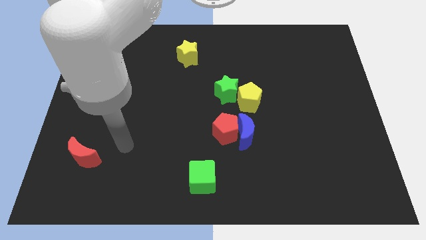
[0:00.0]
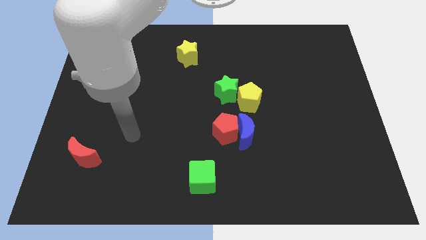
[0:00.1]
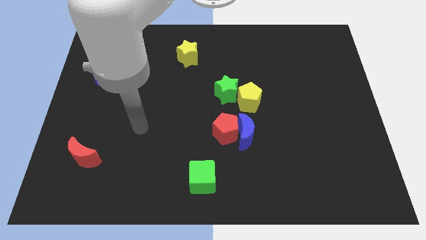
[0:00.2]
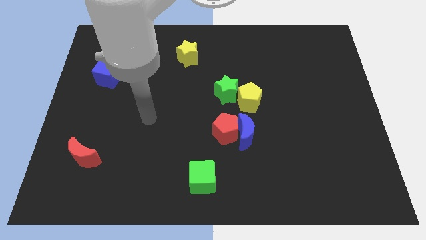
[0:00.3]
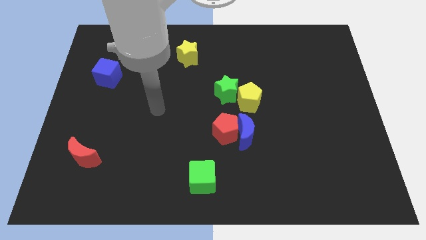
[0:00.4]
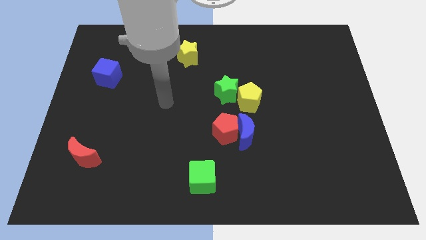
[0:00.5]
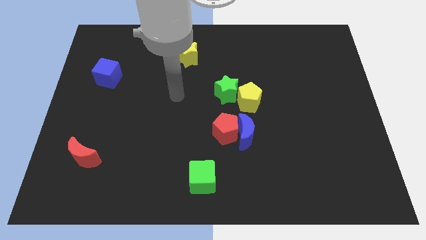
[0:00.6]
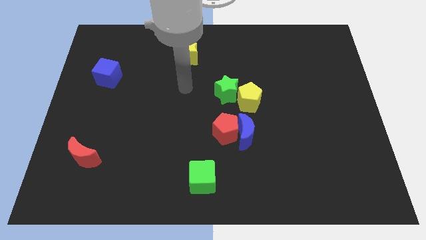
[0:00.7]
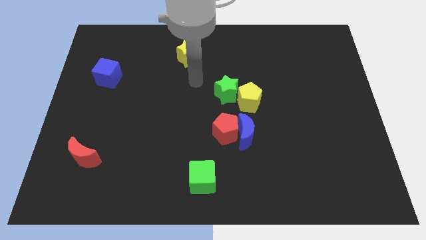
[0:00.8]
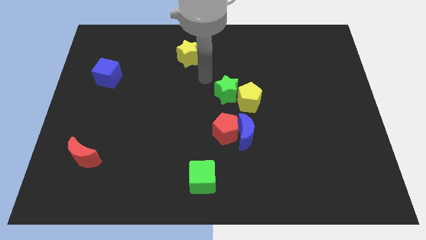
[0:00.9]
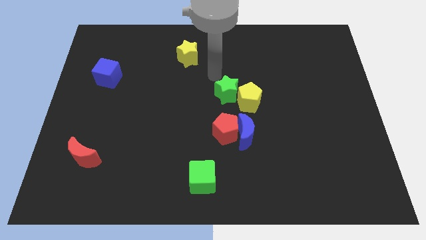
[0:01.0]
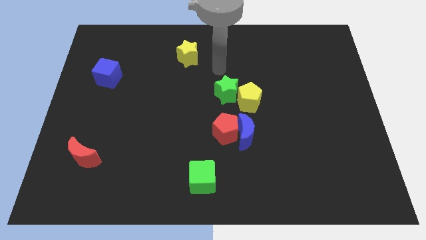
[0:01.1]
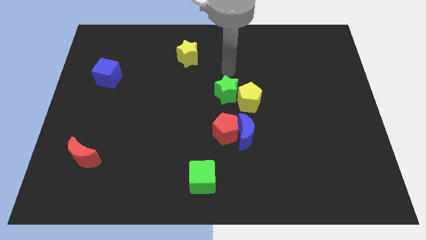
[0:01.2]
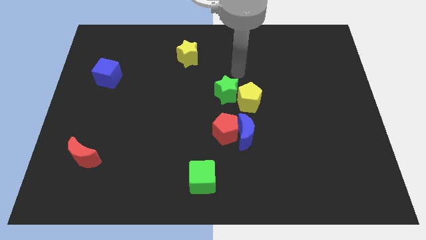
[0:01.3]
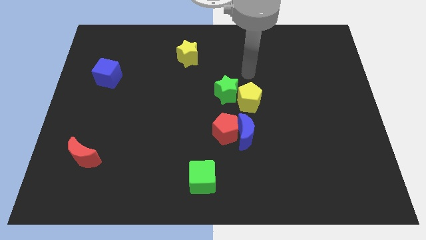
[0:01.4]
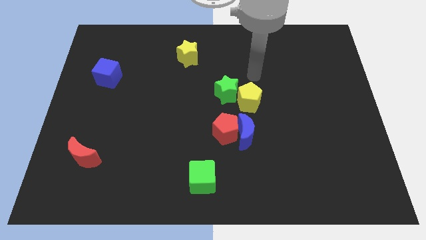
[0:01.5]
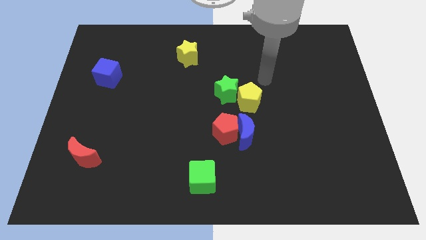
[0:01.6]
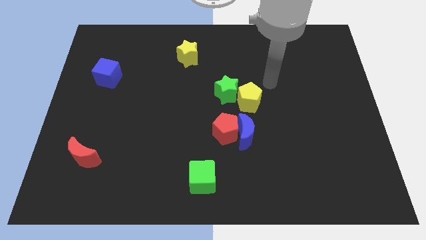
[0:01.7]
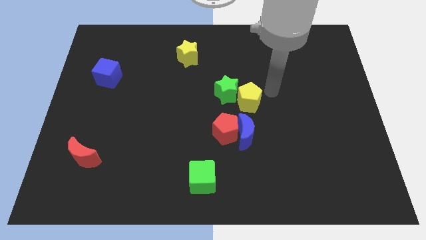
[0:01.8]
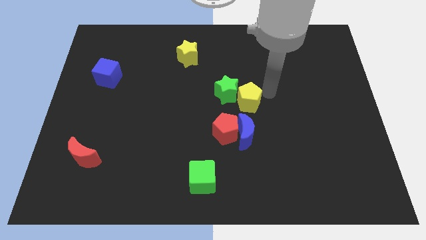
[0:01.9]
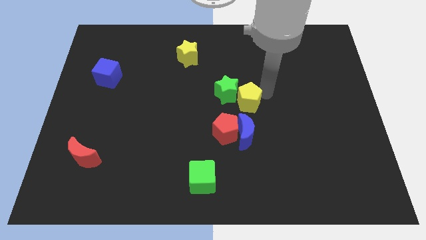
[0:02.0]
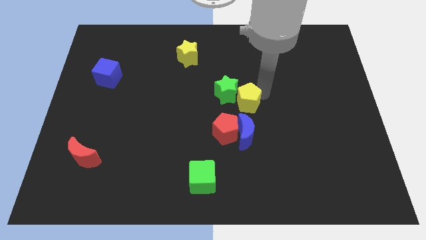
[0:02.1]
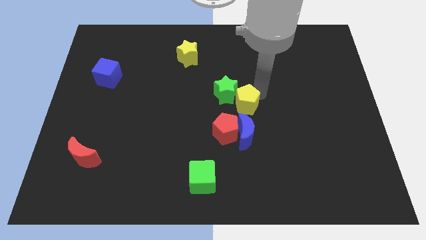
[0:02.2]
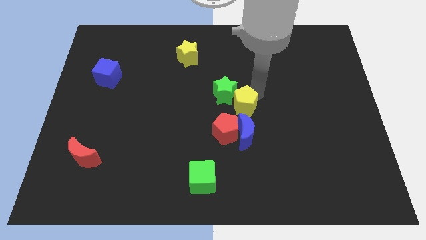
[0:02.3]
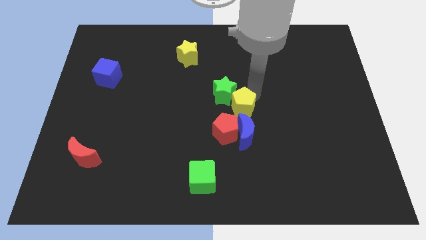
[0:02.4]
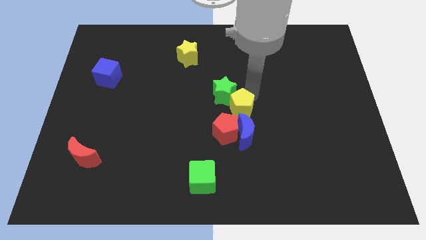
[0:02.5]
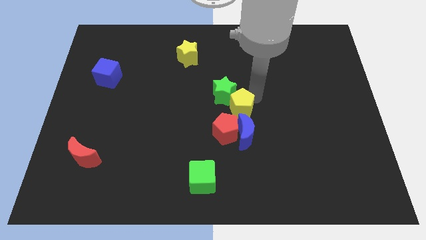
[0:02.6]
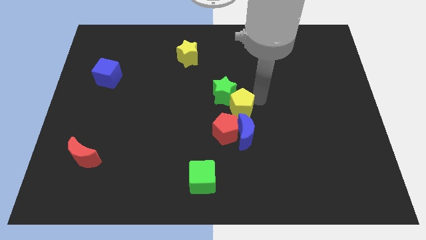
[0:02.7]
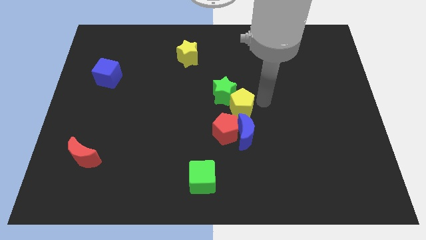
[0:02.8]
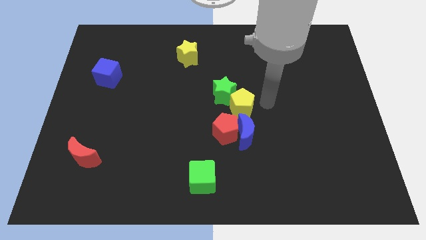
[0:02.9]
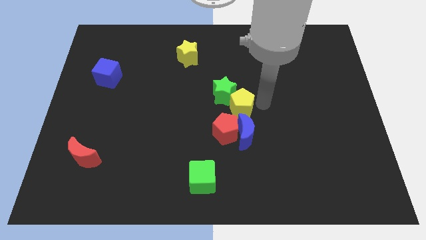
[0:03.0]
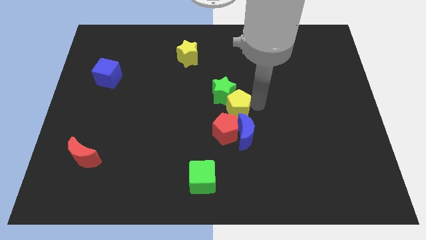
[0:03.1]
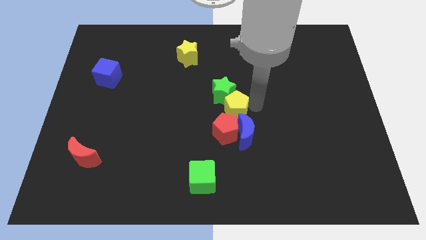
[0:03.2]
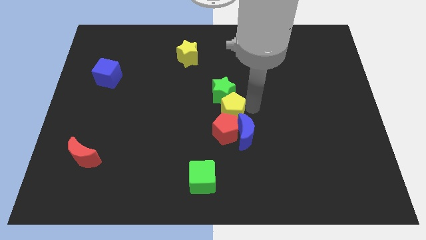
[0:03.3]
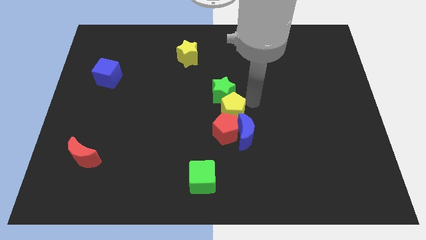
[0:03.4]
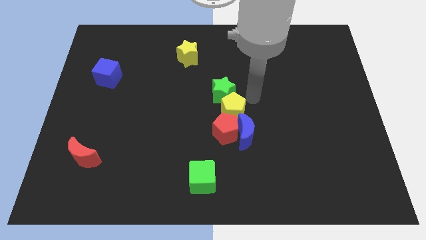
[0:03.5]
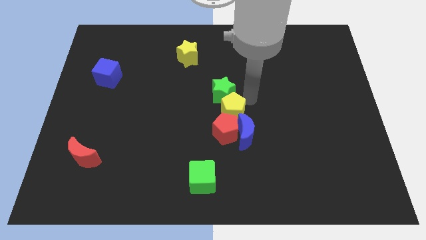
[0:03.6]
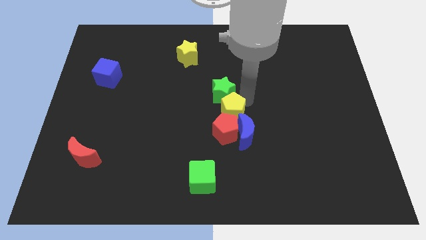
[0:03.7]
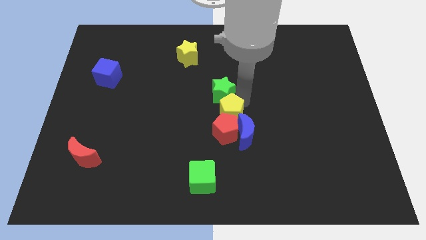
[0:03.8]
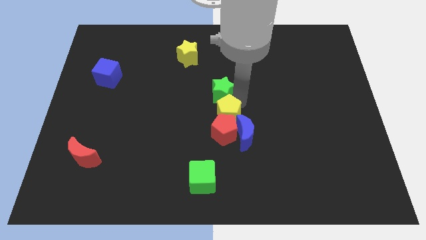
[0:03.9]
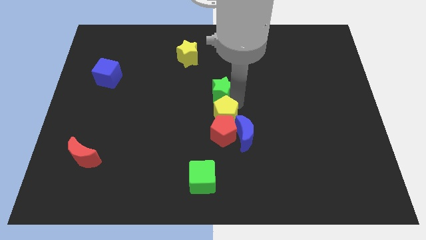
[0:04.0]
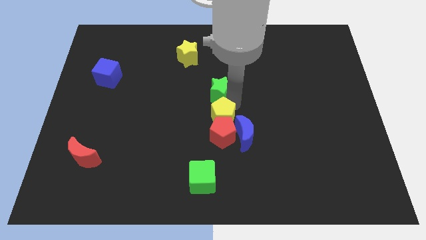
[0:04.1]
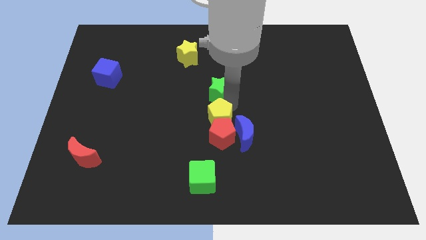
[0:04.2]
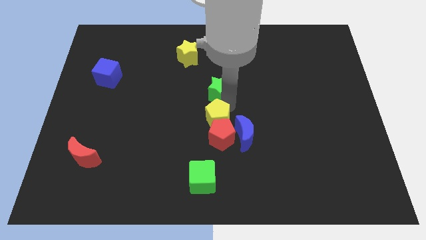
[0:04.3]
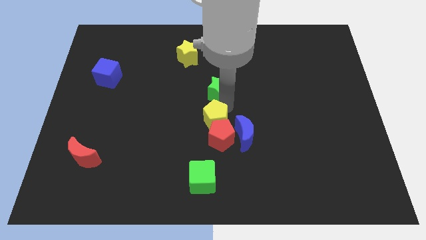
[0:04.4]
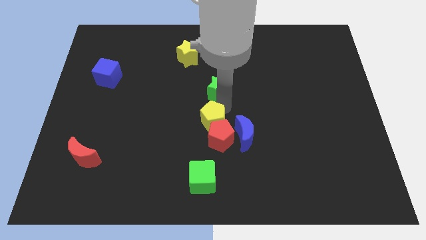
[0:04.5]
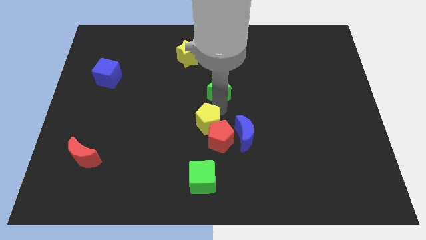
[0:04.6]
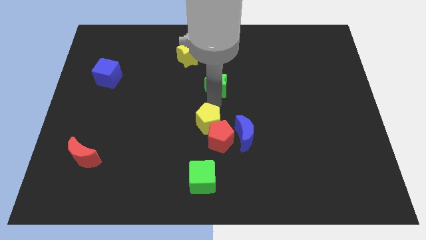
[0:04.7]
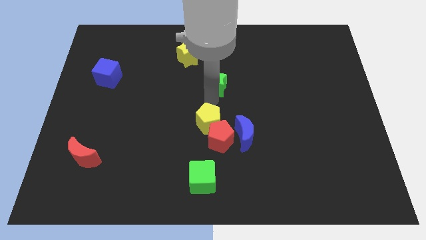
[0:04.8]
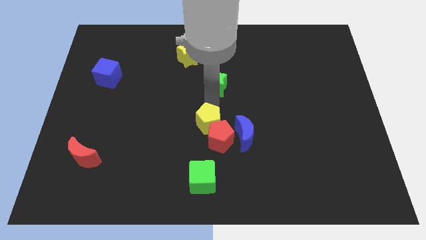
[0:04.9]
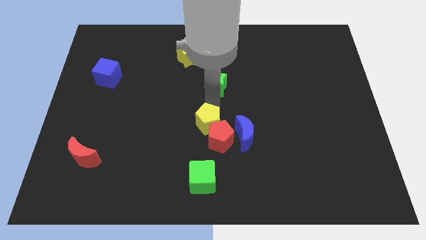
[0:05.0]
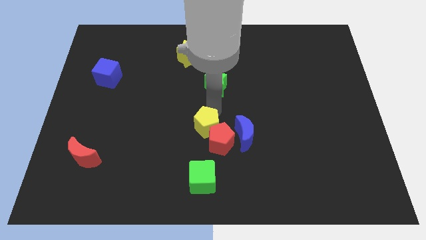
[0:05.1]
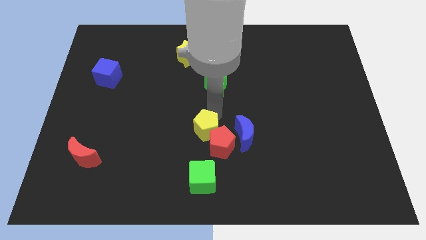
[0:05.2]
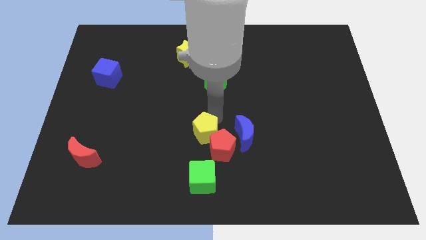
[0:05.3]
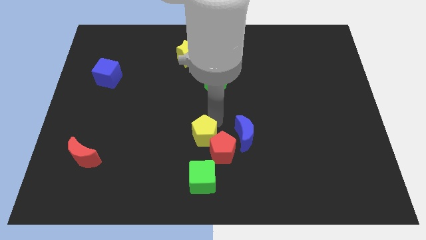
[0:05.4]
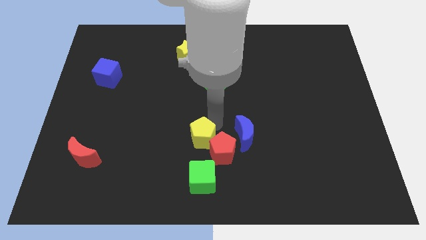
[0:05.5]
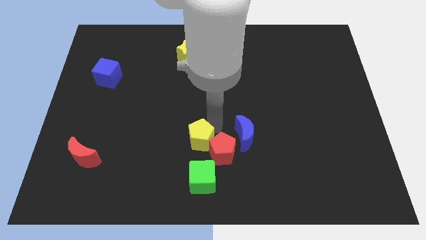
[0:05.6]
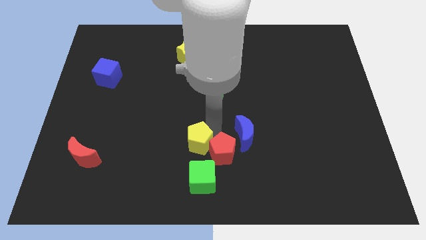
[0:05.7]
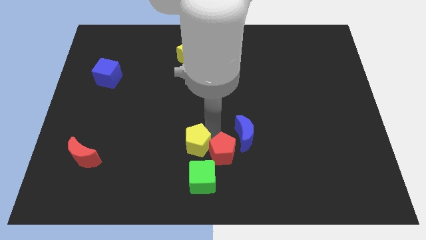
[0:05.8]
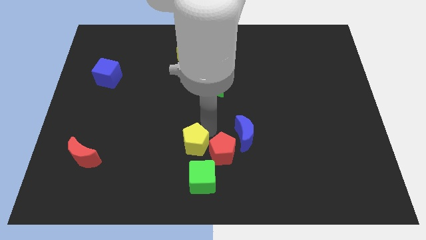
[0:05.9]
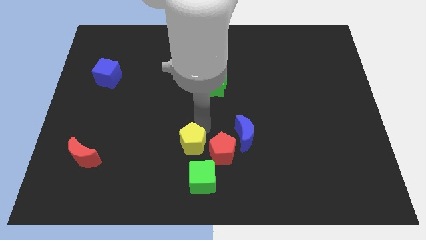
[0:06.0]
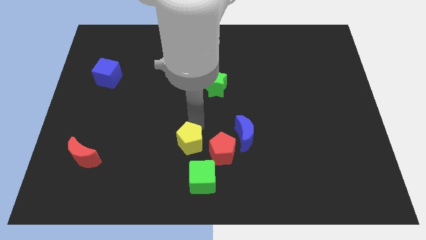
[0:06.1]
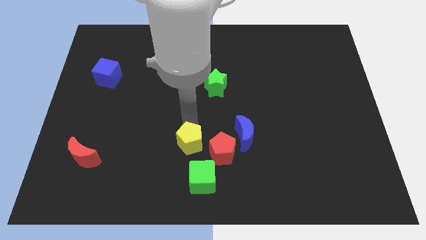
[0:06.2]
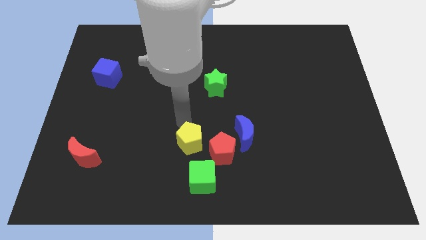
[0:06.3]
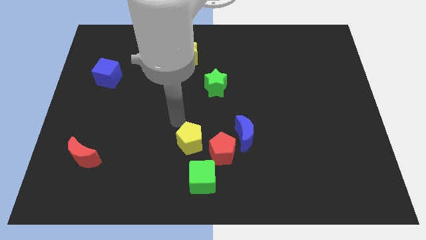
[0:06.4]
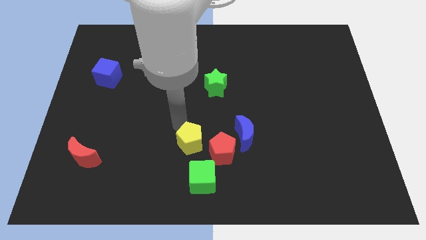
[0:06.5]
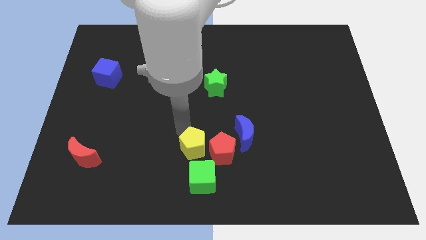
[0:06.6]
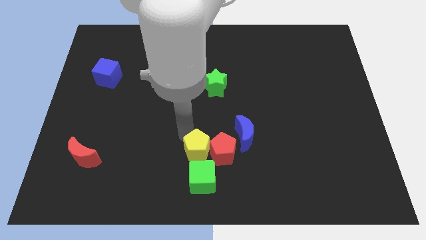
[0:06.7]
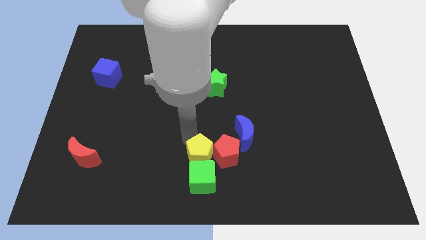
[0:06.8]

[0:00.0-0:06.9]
move the yellow pentagon towards the green cube
